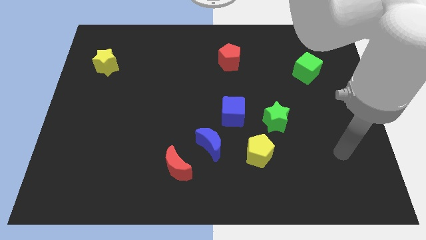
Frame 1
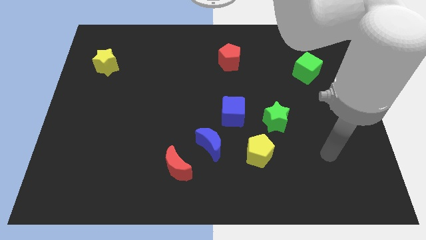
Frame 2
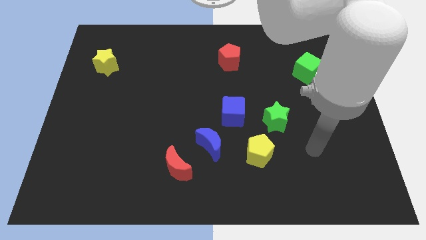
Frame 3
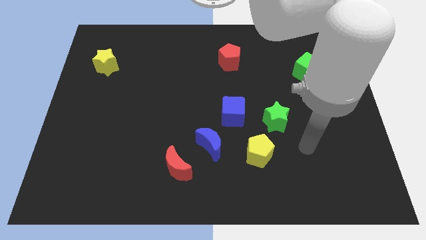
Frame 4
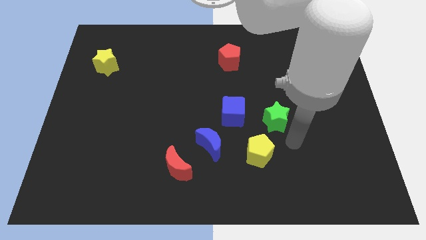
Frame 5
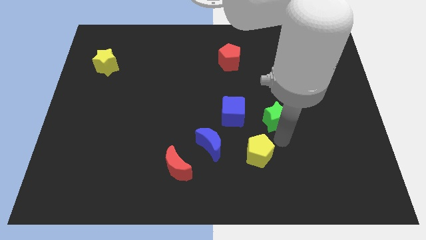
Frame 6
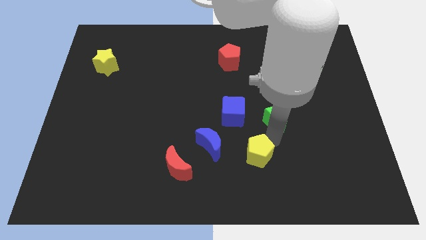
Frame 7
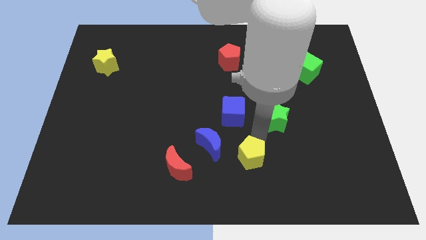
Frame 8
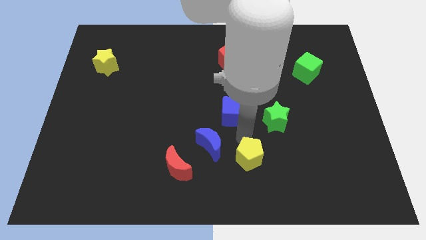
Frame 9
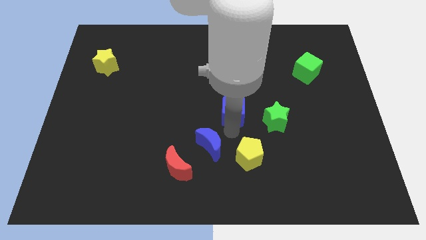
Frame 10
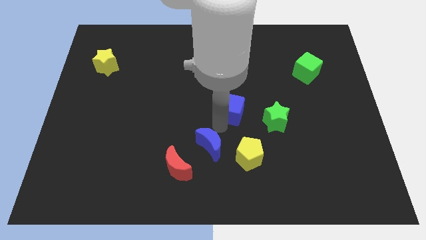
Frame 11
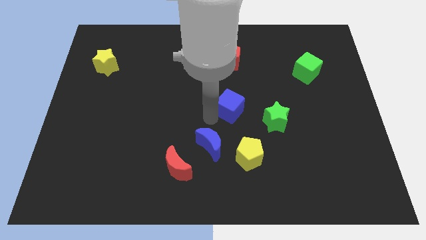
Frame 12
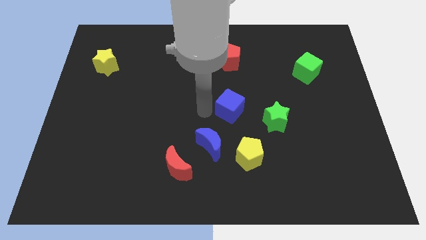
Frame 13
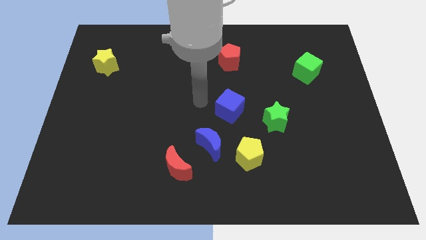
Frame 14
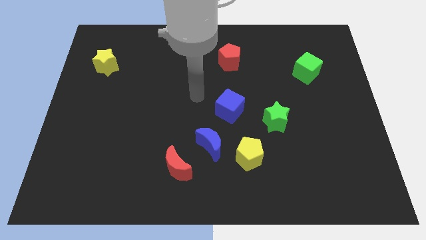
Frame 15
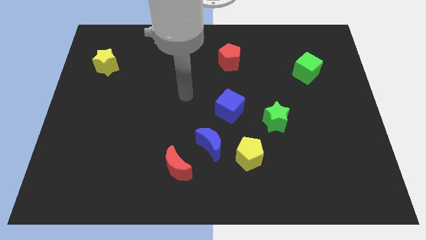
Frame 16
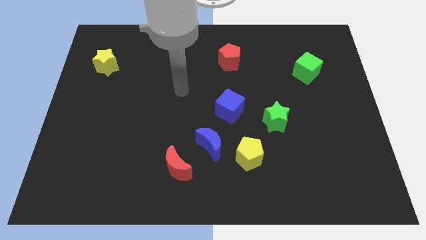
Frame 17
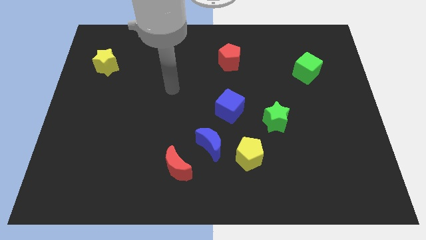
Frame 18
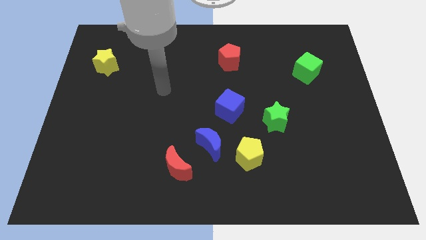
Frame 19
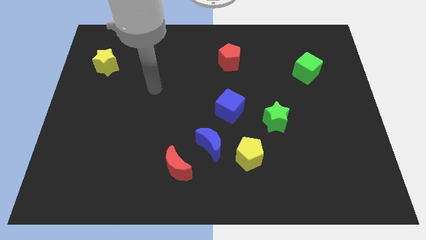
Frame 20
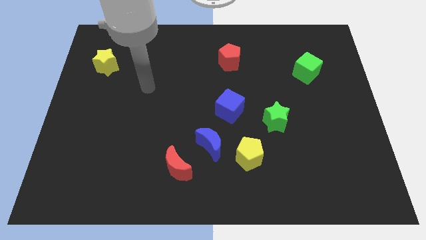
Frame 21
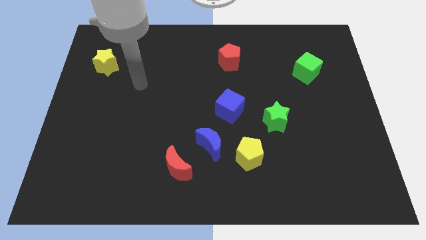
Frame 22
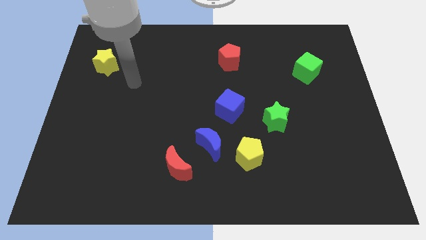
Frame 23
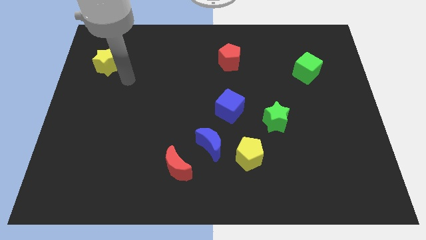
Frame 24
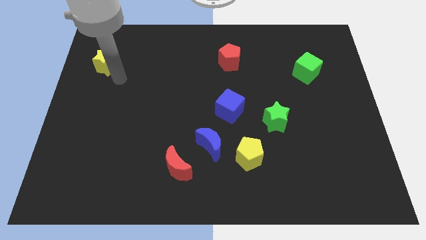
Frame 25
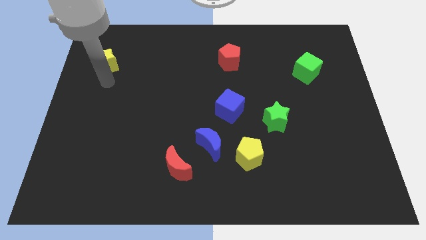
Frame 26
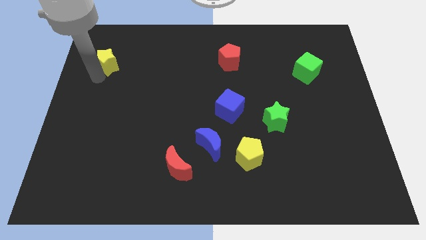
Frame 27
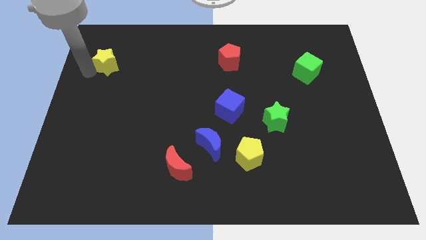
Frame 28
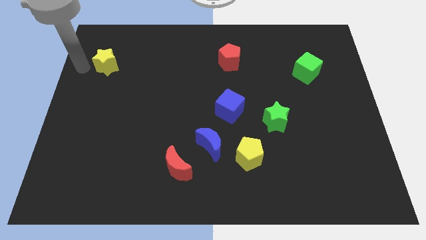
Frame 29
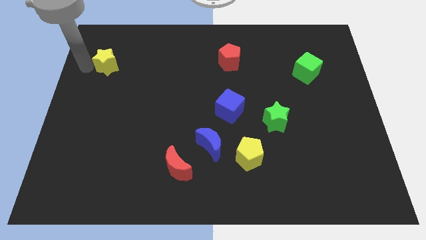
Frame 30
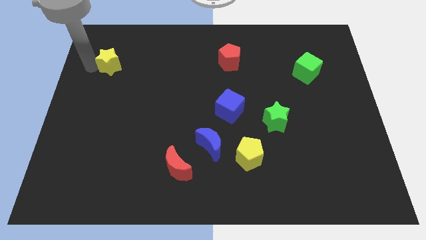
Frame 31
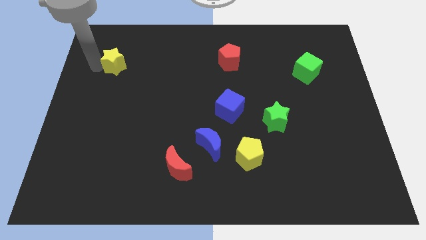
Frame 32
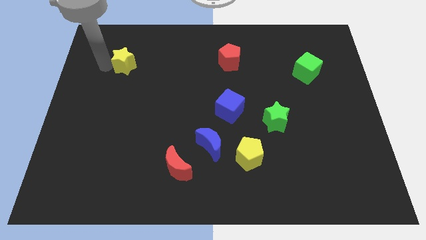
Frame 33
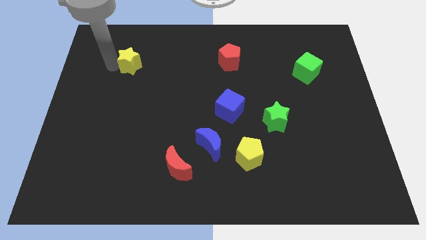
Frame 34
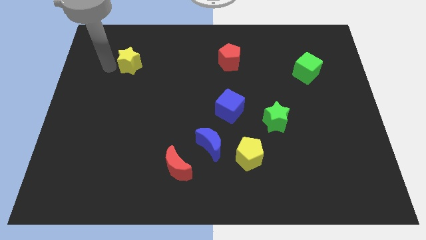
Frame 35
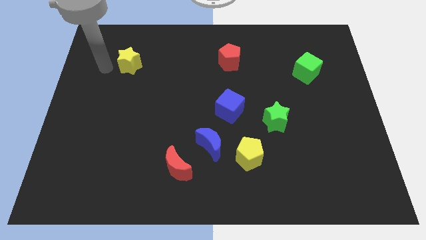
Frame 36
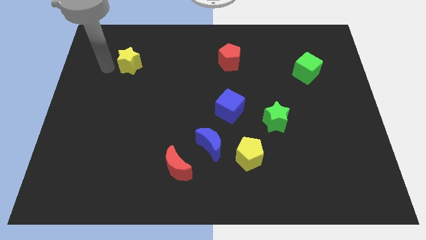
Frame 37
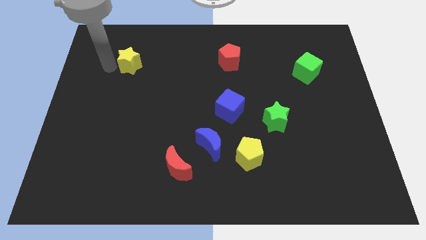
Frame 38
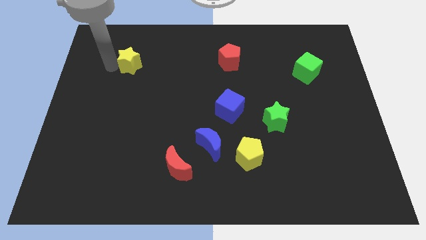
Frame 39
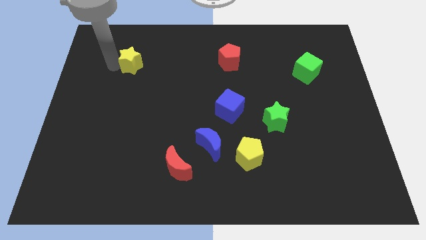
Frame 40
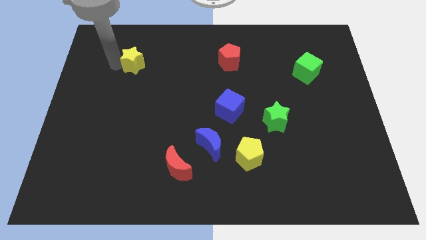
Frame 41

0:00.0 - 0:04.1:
slide the yellow star somewhat right

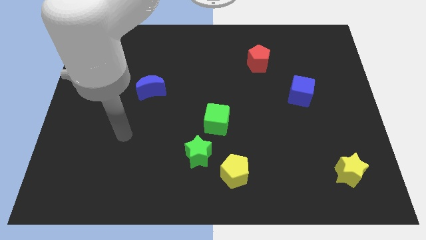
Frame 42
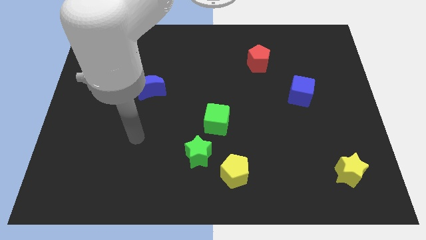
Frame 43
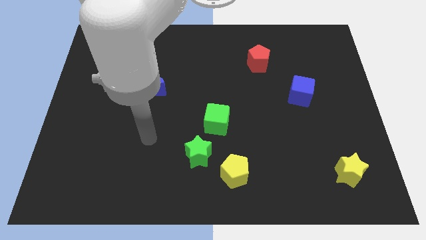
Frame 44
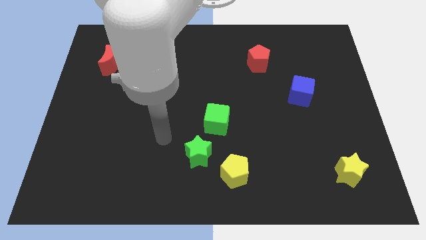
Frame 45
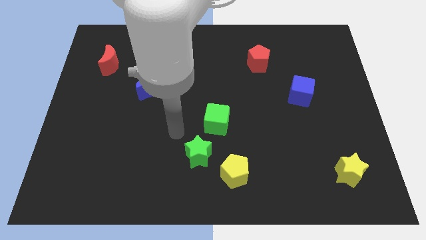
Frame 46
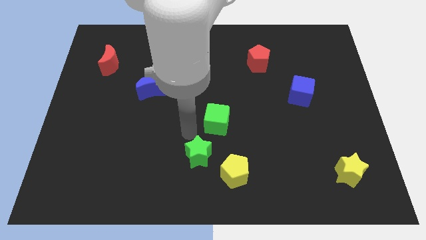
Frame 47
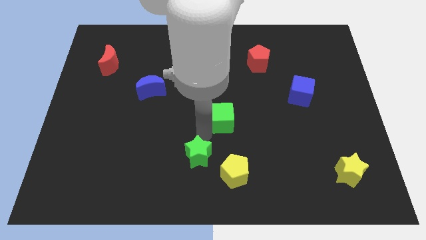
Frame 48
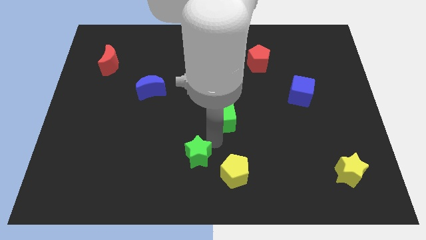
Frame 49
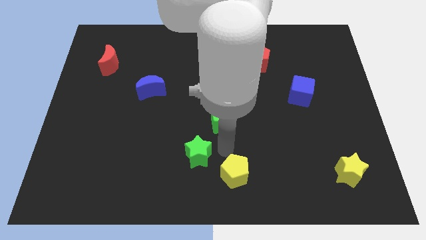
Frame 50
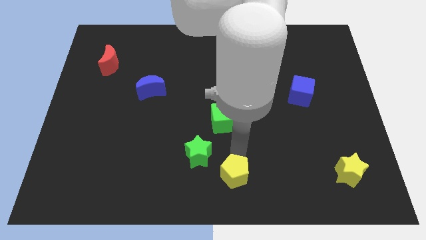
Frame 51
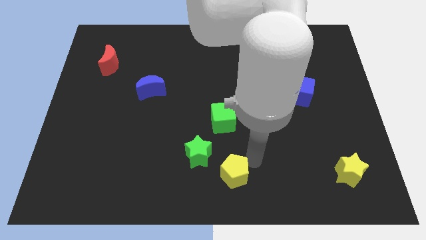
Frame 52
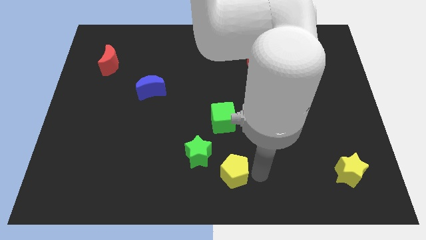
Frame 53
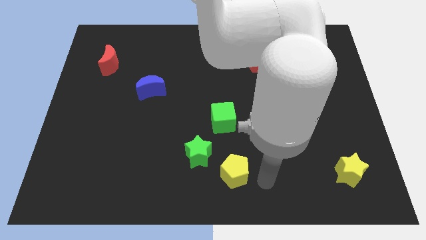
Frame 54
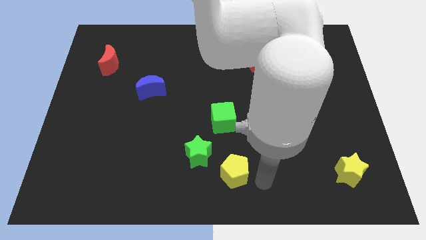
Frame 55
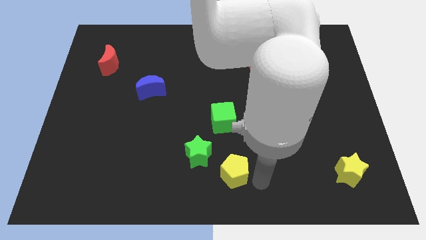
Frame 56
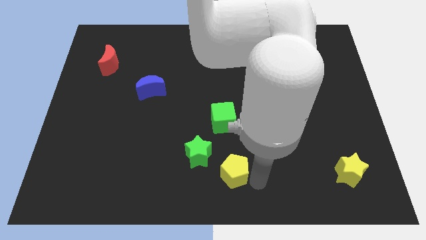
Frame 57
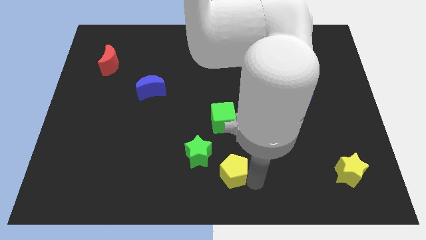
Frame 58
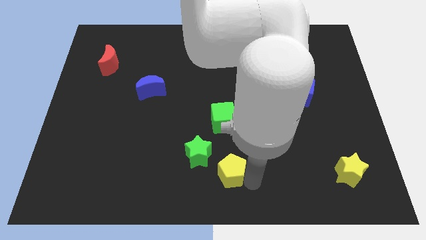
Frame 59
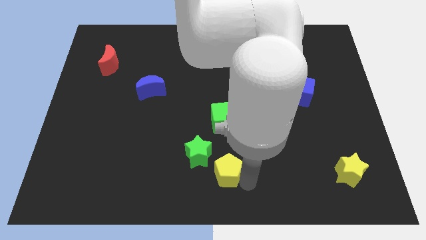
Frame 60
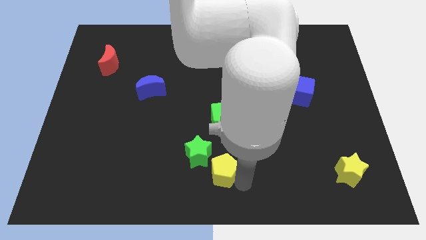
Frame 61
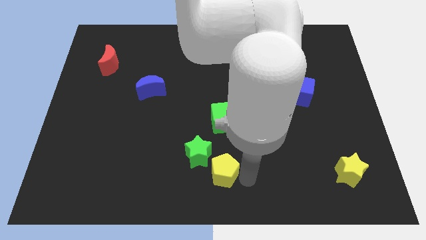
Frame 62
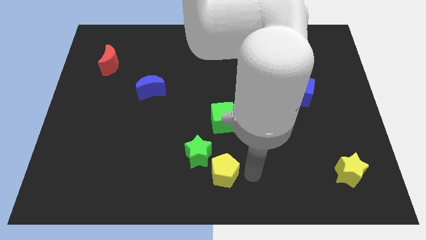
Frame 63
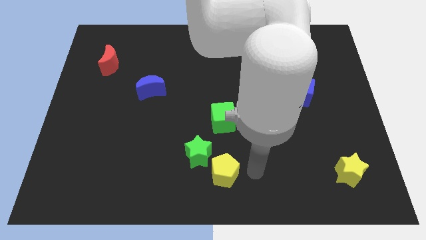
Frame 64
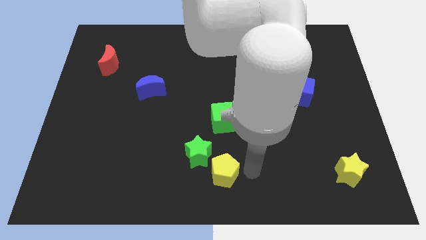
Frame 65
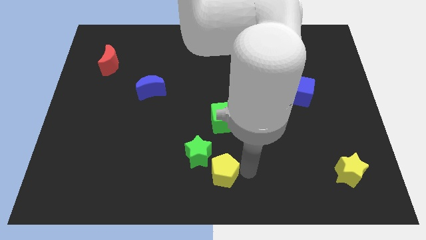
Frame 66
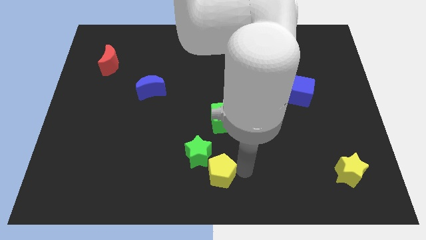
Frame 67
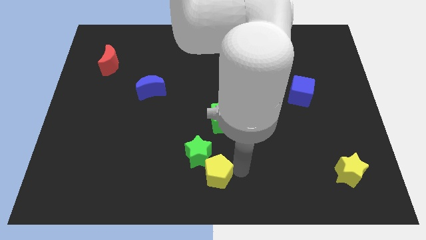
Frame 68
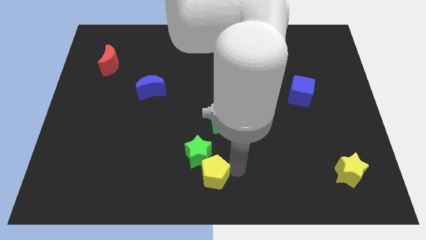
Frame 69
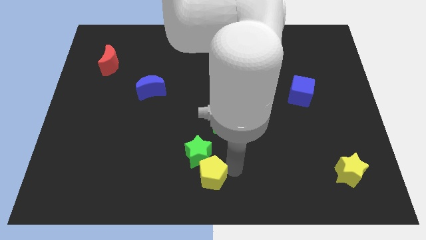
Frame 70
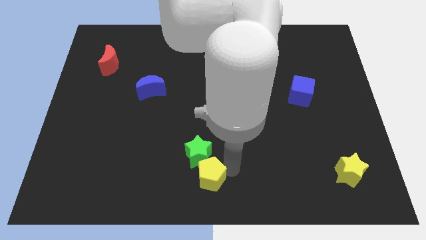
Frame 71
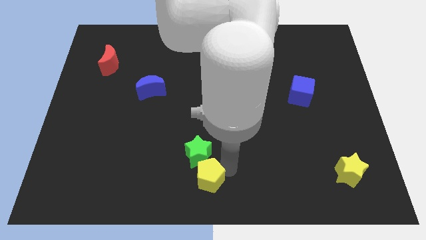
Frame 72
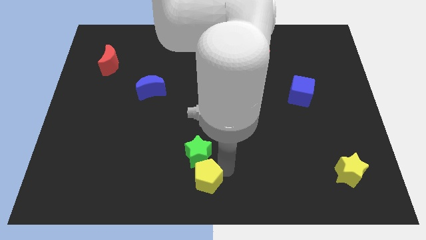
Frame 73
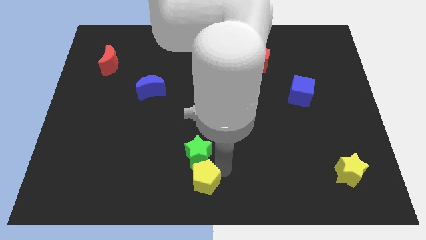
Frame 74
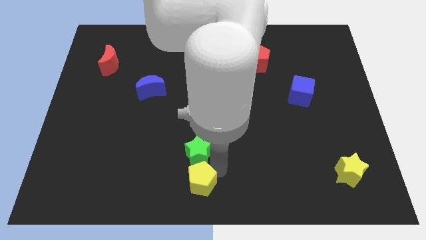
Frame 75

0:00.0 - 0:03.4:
slide the yellow pentagon somewhat left
